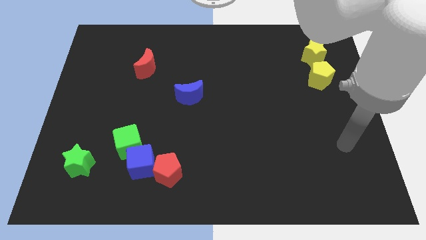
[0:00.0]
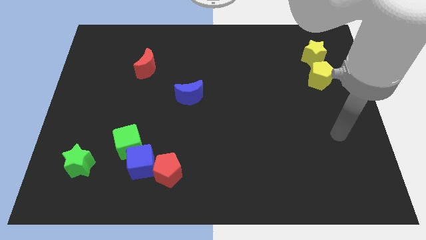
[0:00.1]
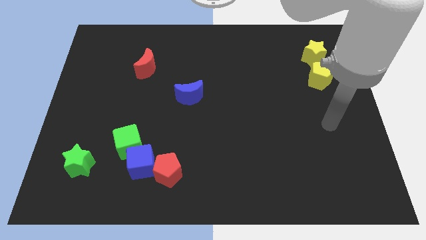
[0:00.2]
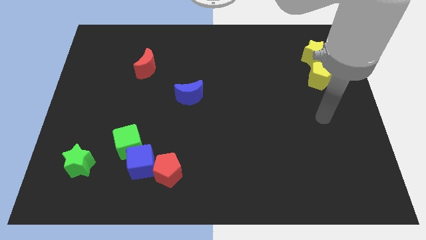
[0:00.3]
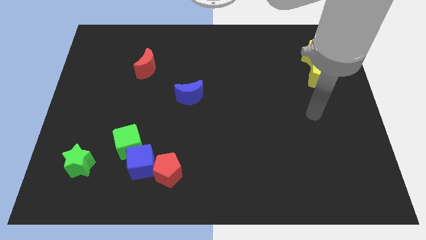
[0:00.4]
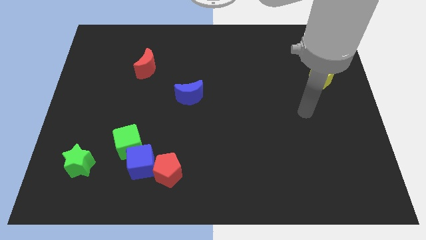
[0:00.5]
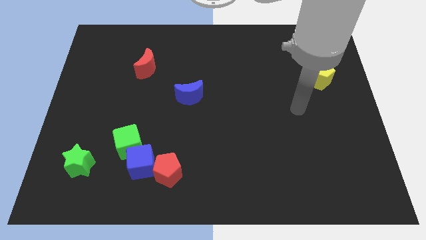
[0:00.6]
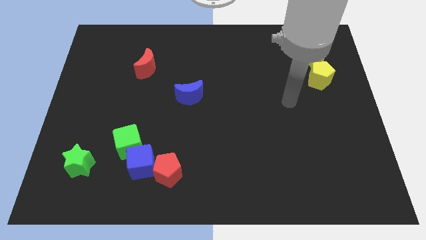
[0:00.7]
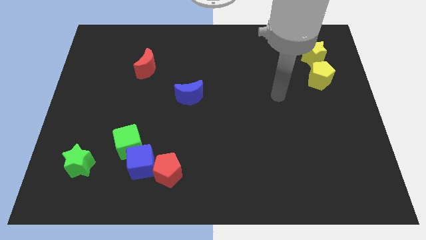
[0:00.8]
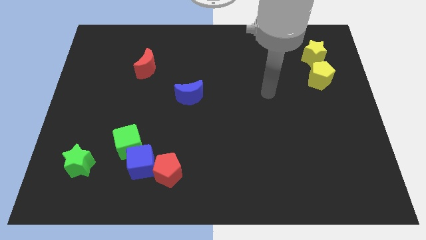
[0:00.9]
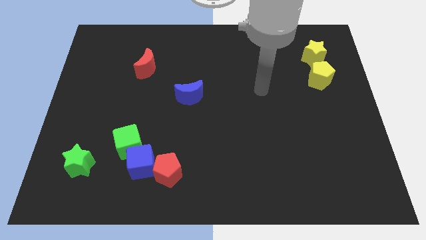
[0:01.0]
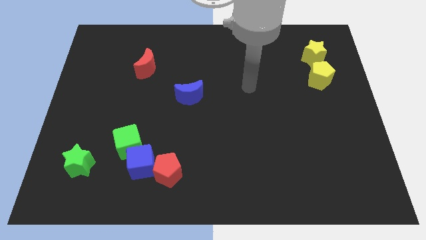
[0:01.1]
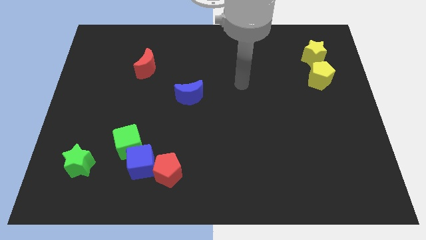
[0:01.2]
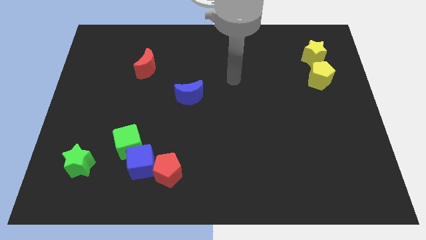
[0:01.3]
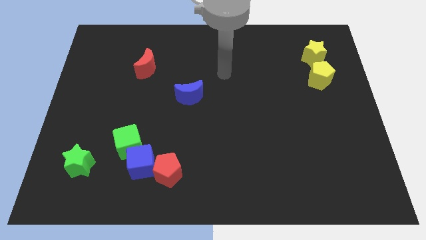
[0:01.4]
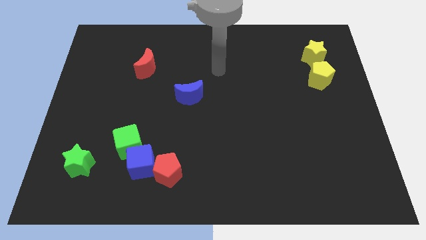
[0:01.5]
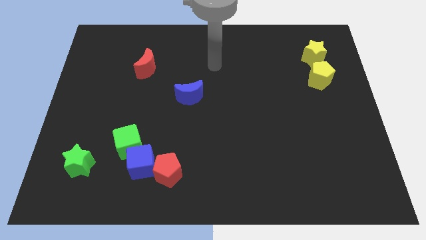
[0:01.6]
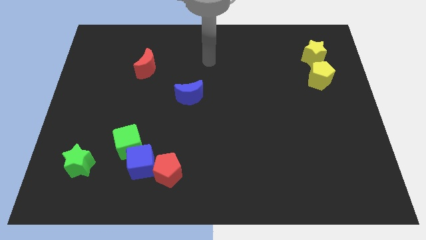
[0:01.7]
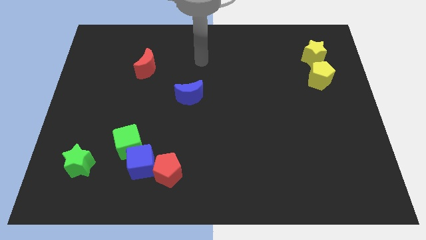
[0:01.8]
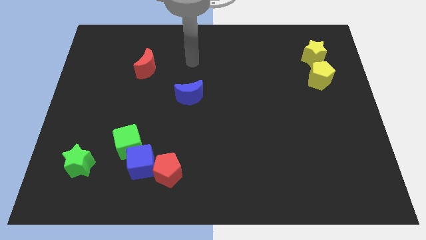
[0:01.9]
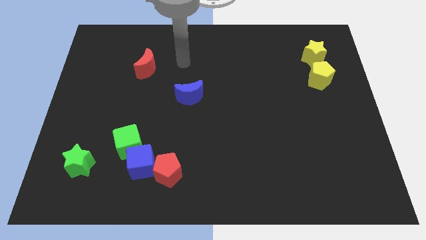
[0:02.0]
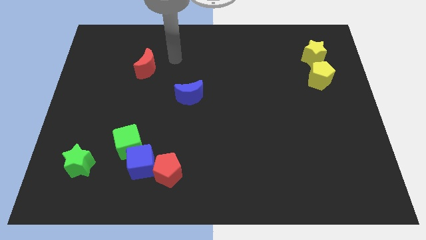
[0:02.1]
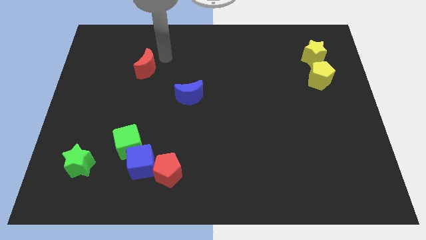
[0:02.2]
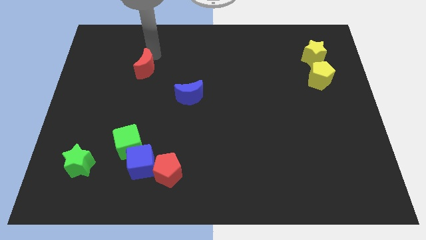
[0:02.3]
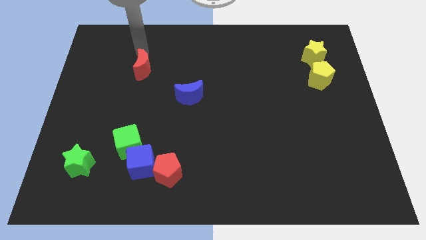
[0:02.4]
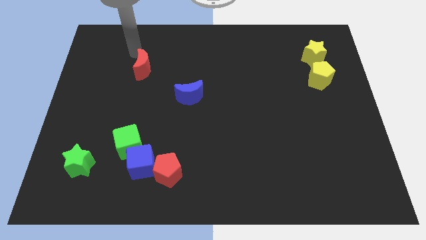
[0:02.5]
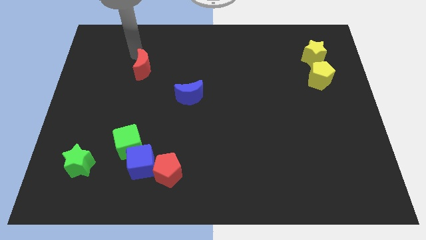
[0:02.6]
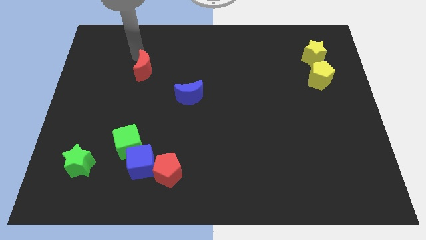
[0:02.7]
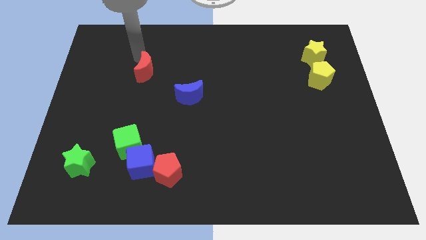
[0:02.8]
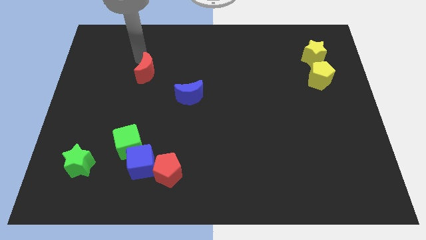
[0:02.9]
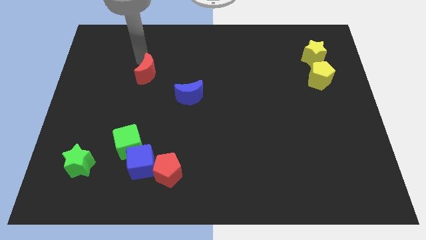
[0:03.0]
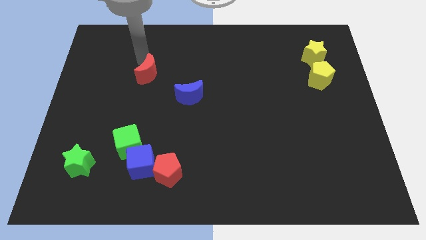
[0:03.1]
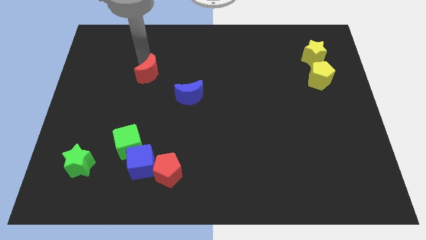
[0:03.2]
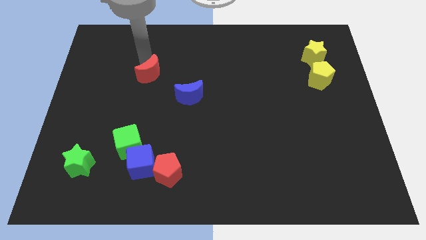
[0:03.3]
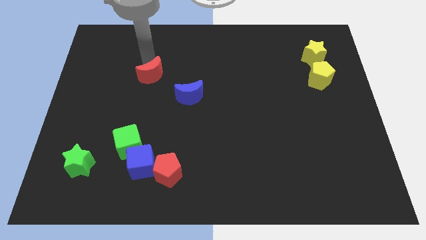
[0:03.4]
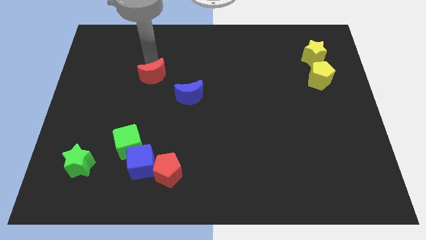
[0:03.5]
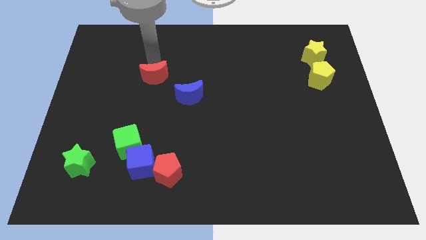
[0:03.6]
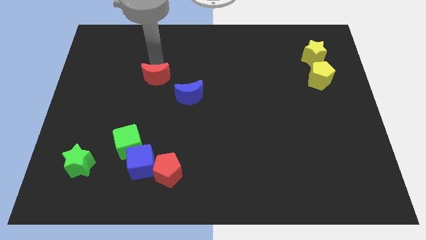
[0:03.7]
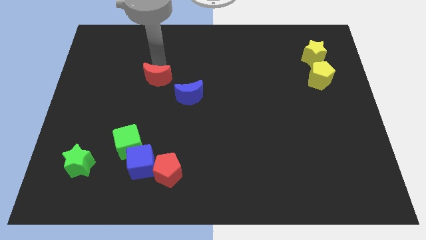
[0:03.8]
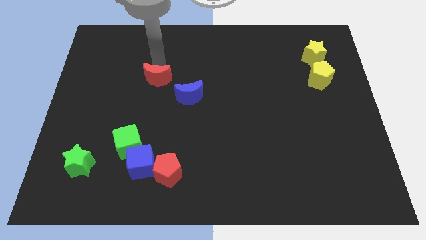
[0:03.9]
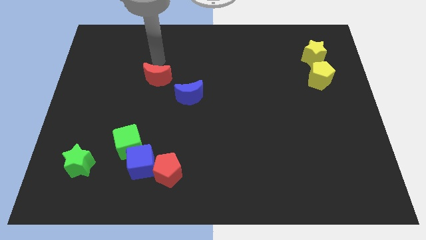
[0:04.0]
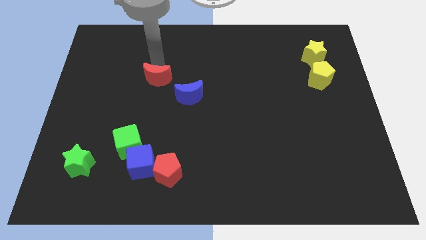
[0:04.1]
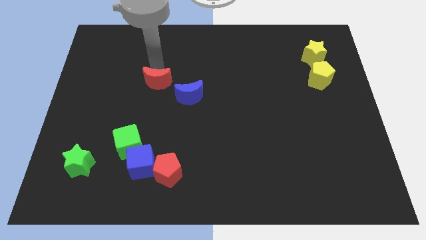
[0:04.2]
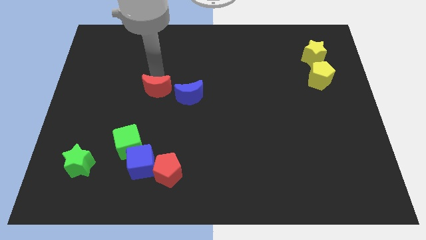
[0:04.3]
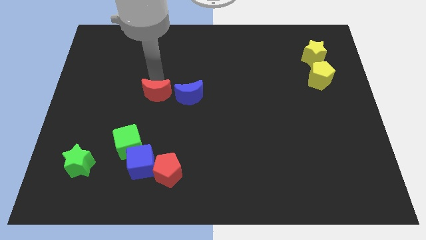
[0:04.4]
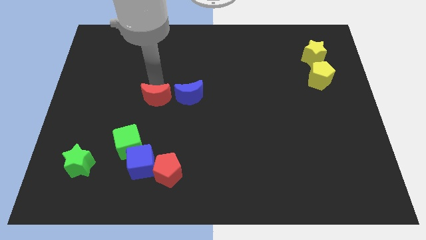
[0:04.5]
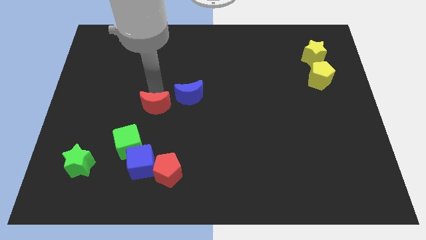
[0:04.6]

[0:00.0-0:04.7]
move the red moon to the top right of the green cube

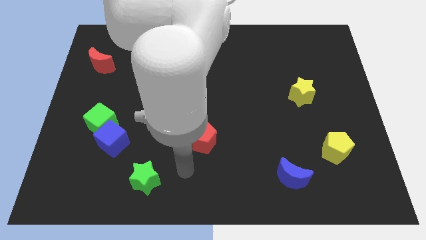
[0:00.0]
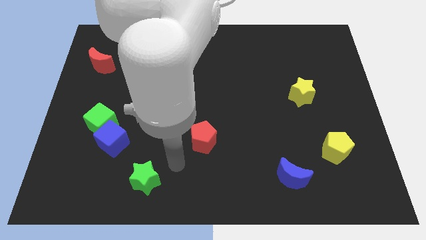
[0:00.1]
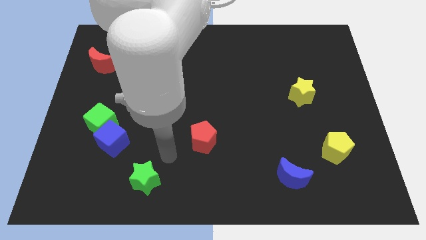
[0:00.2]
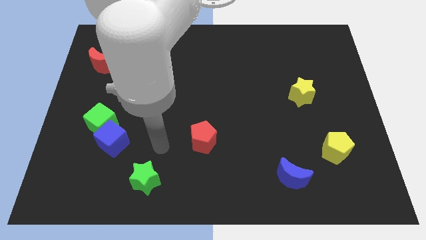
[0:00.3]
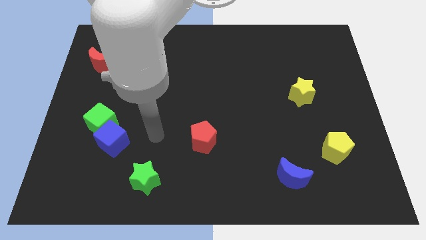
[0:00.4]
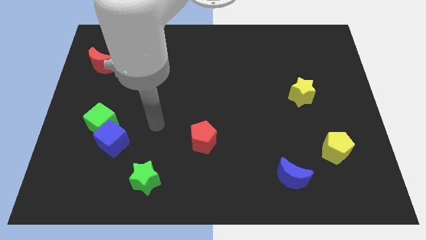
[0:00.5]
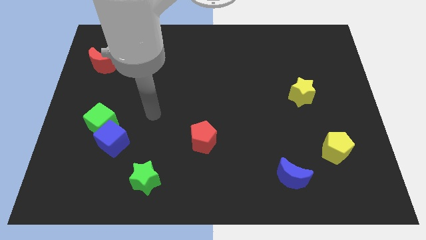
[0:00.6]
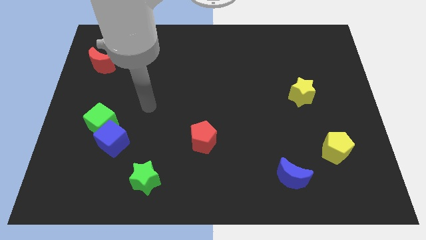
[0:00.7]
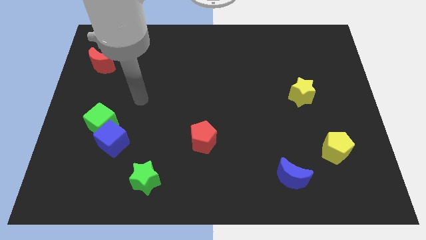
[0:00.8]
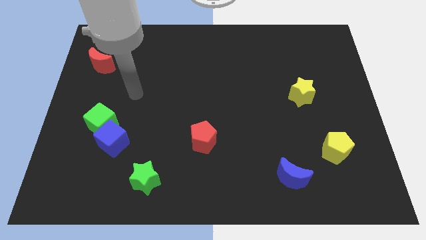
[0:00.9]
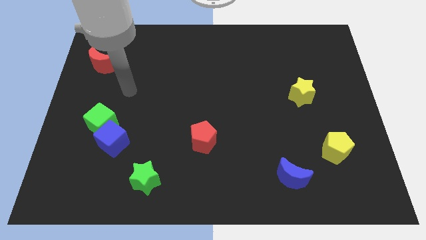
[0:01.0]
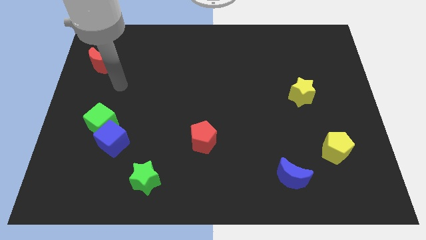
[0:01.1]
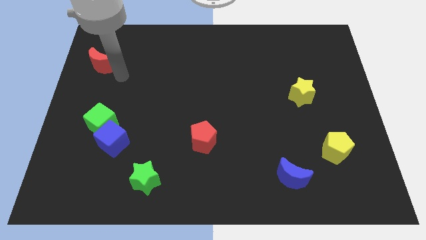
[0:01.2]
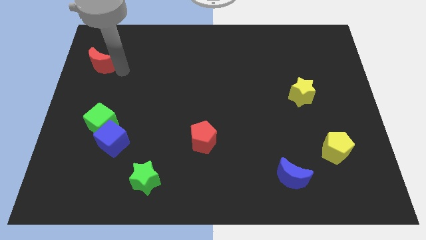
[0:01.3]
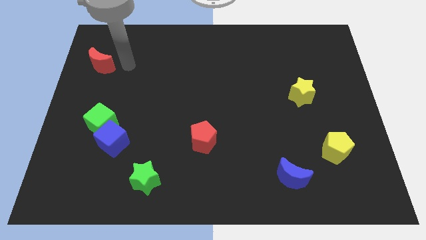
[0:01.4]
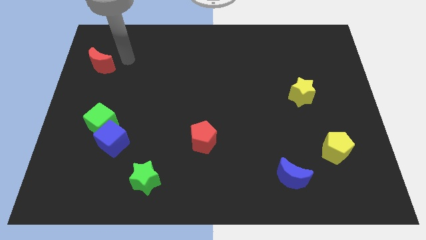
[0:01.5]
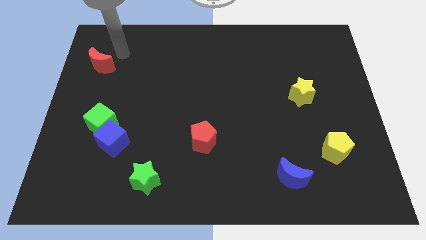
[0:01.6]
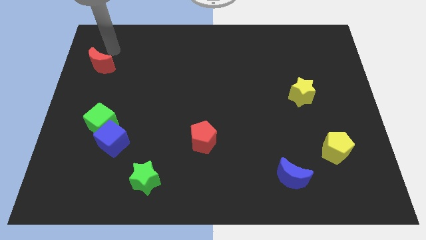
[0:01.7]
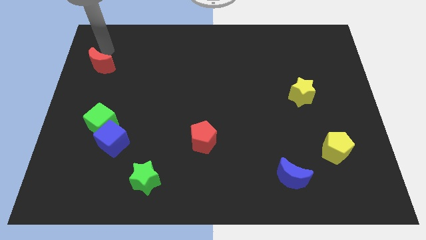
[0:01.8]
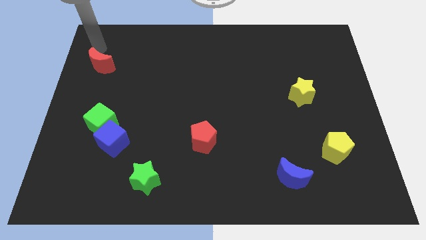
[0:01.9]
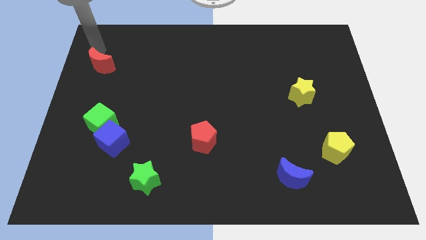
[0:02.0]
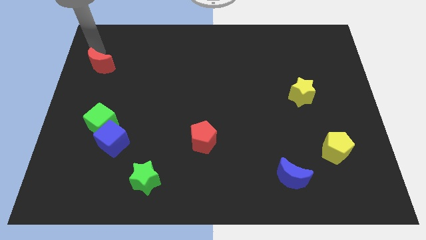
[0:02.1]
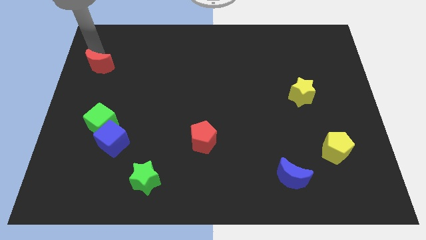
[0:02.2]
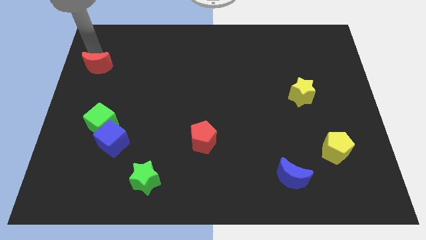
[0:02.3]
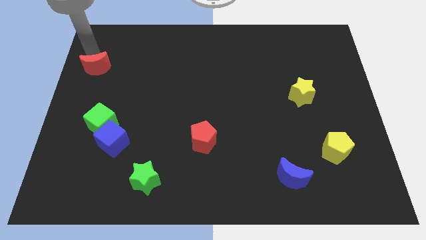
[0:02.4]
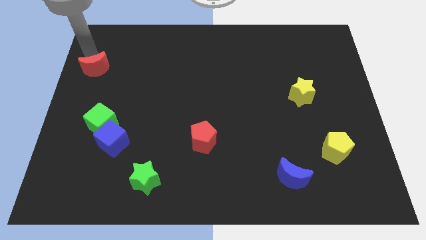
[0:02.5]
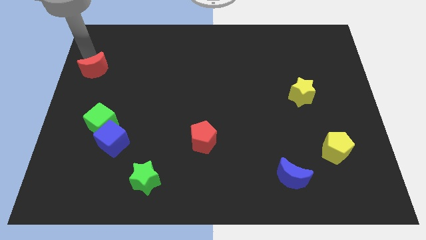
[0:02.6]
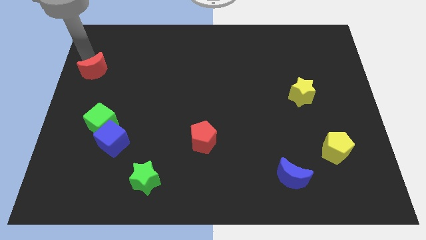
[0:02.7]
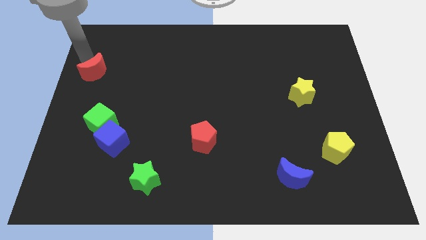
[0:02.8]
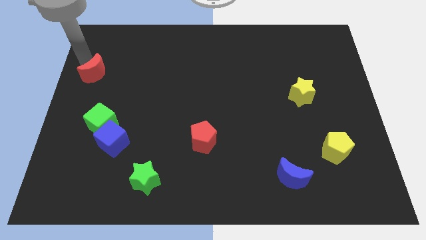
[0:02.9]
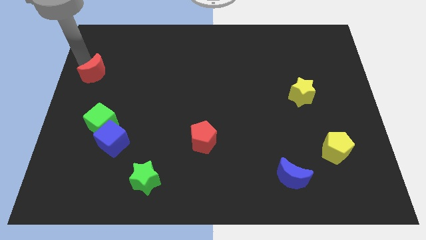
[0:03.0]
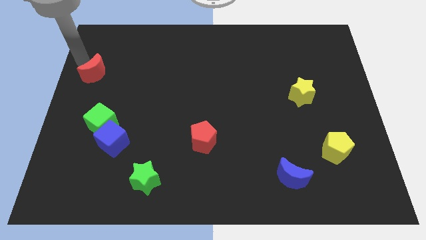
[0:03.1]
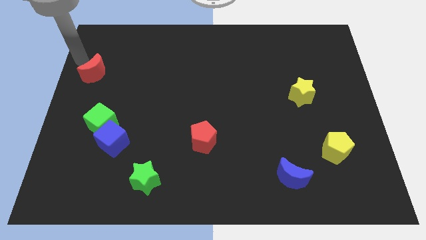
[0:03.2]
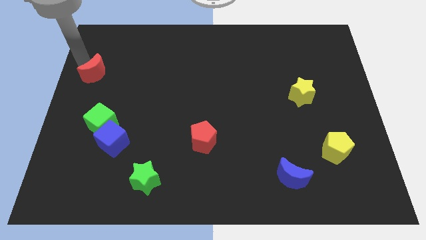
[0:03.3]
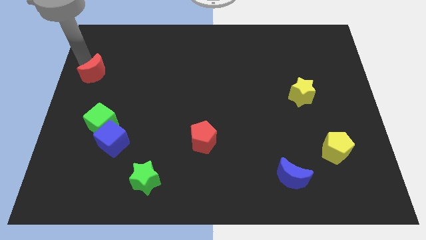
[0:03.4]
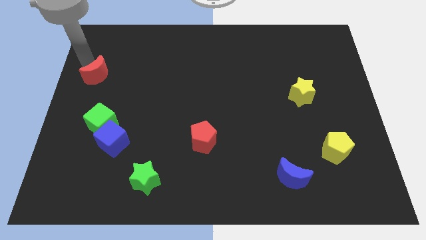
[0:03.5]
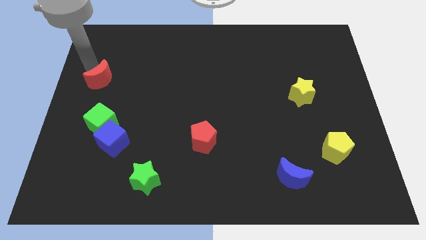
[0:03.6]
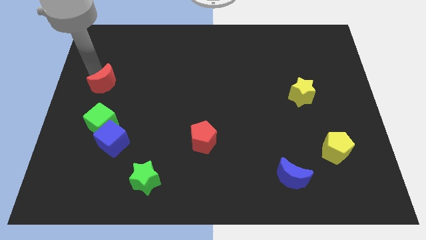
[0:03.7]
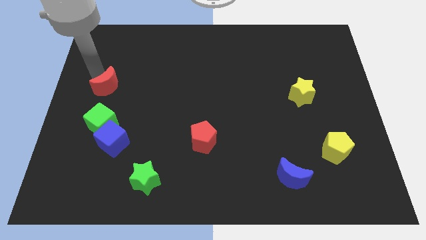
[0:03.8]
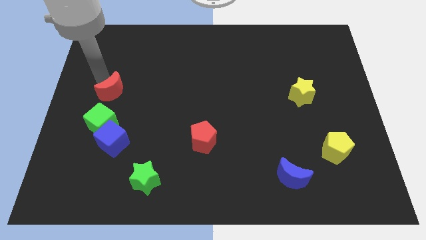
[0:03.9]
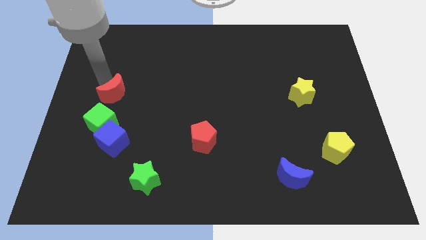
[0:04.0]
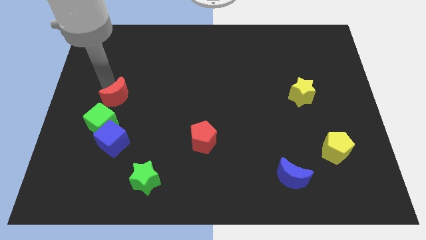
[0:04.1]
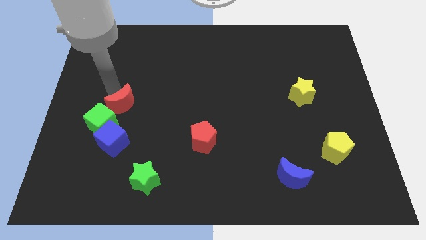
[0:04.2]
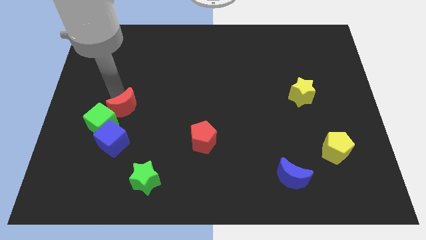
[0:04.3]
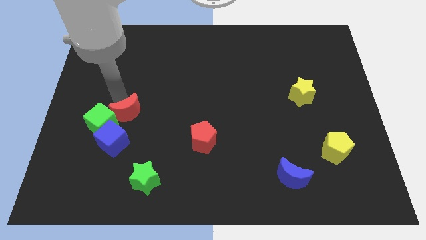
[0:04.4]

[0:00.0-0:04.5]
move the red moon to the top right side of the blue cube
